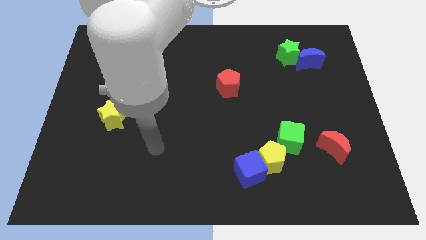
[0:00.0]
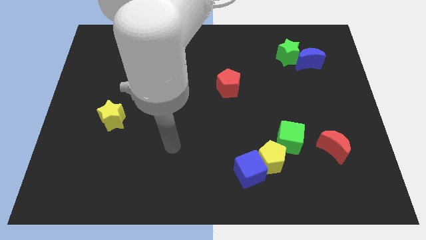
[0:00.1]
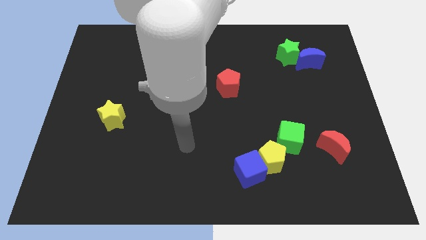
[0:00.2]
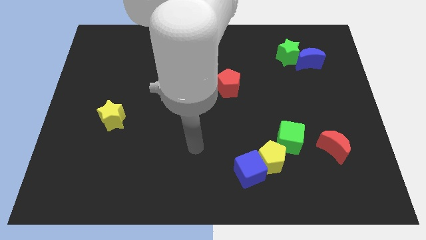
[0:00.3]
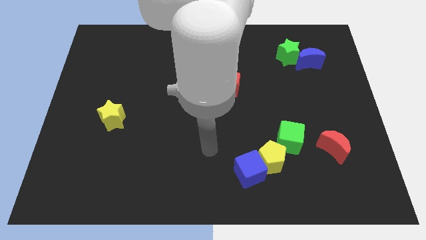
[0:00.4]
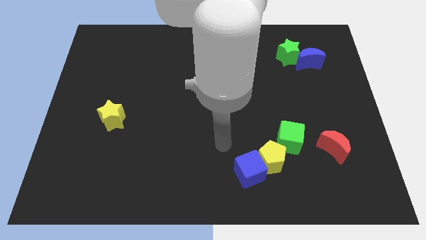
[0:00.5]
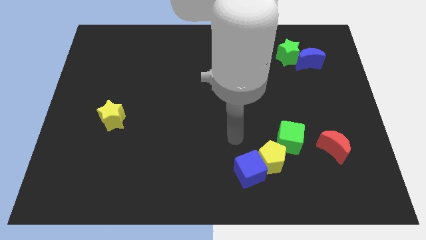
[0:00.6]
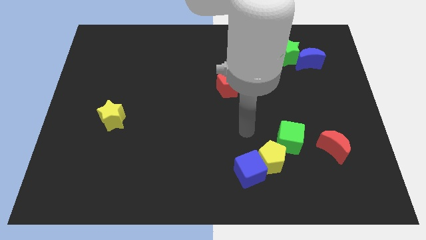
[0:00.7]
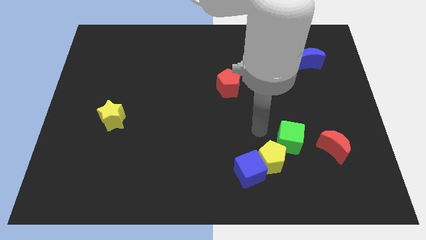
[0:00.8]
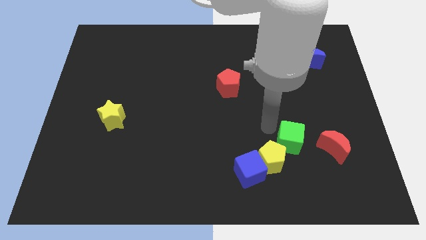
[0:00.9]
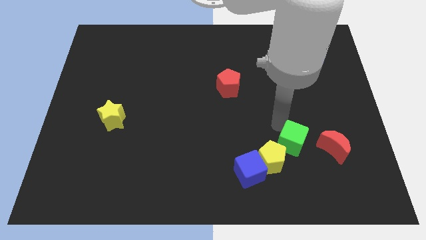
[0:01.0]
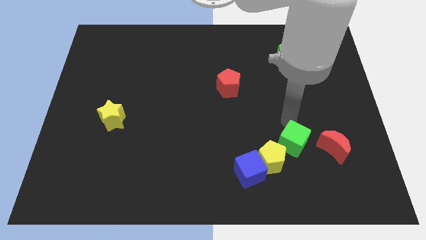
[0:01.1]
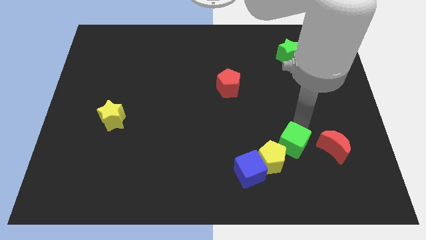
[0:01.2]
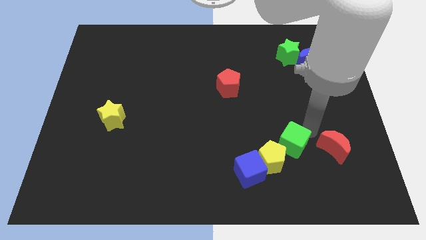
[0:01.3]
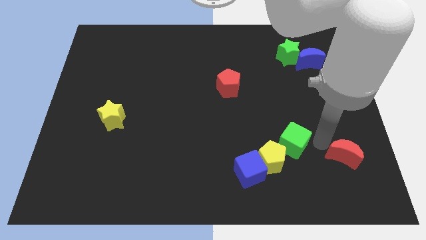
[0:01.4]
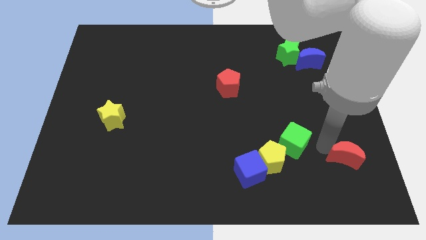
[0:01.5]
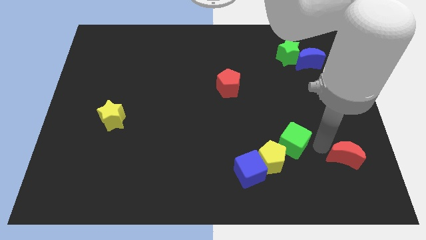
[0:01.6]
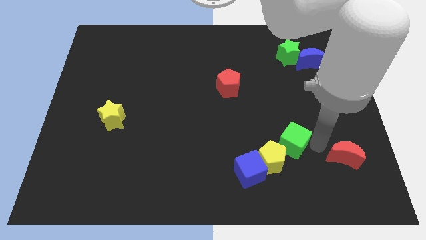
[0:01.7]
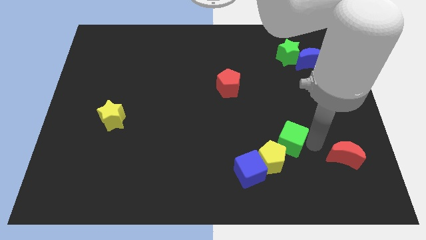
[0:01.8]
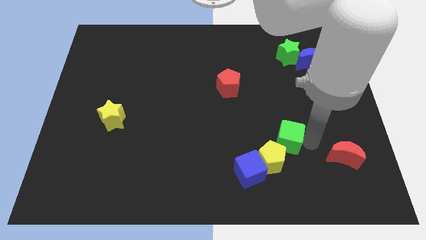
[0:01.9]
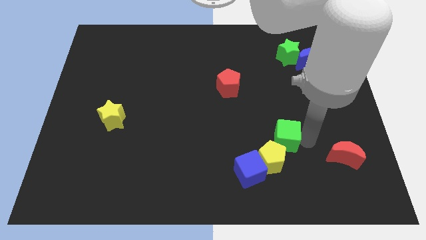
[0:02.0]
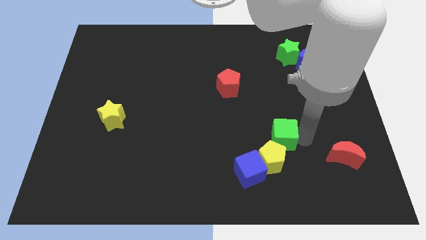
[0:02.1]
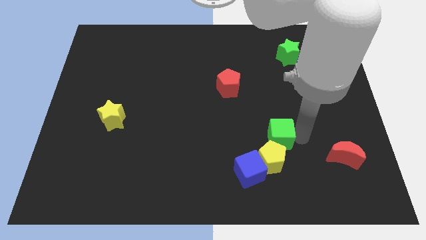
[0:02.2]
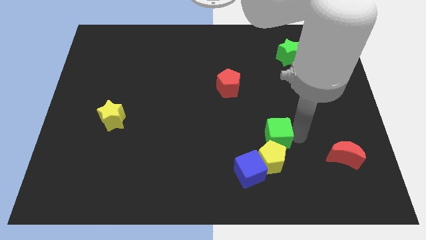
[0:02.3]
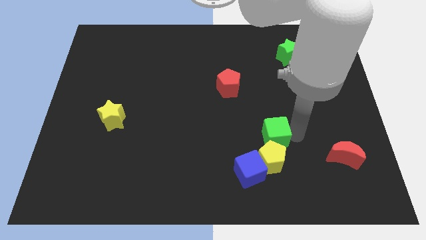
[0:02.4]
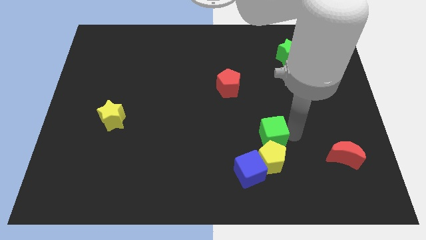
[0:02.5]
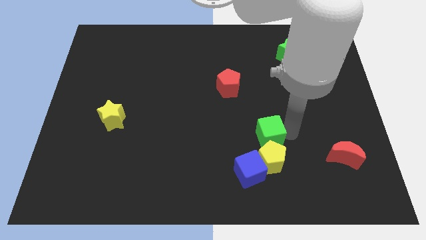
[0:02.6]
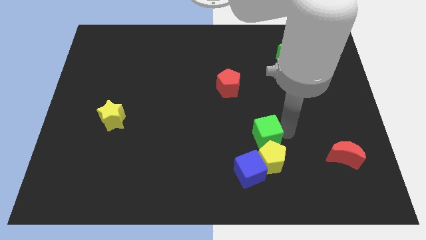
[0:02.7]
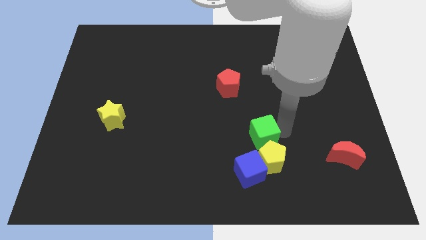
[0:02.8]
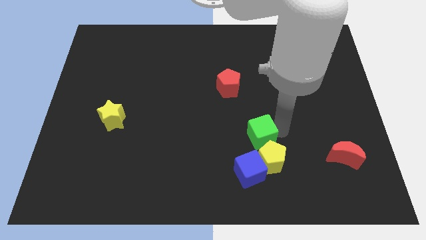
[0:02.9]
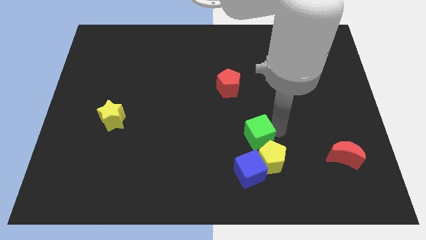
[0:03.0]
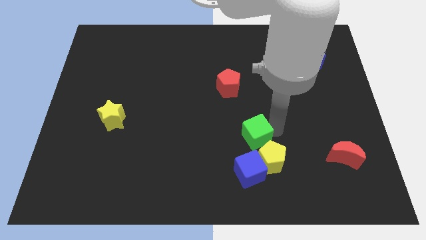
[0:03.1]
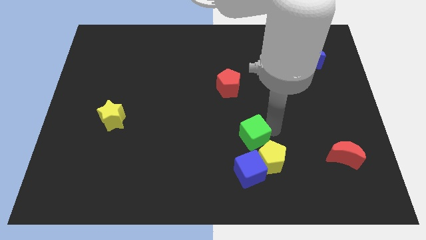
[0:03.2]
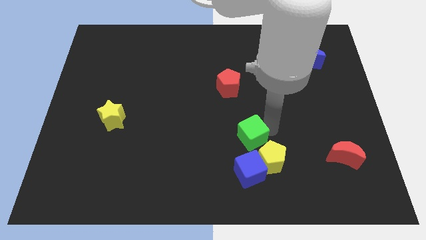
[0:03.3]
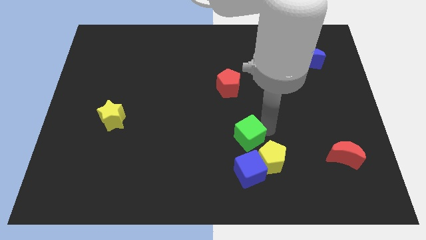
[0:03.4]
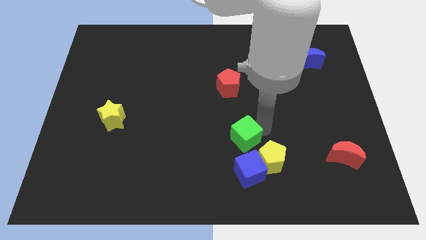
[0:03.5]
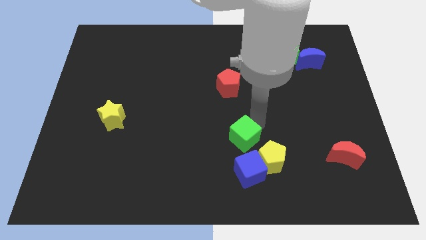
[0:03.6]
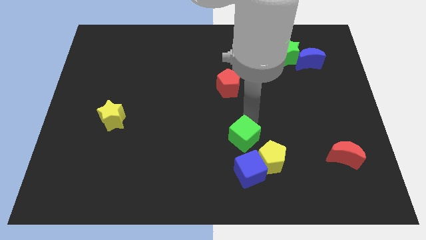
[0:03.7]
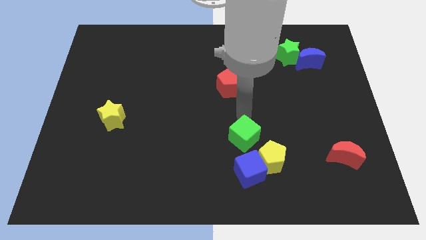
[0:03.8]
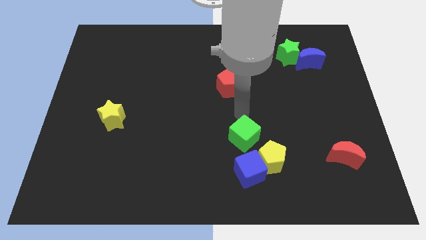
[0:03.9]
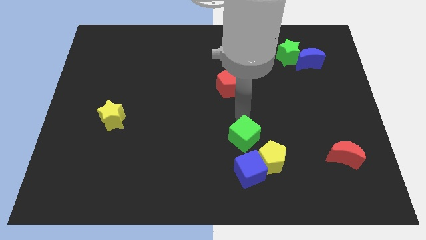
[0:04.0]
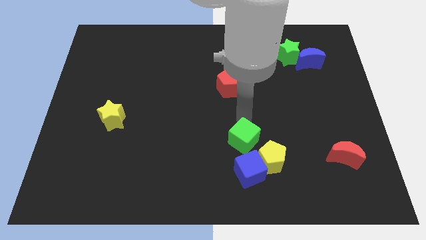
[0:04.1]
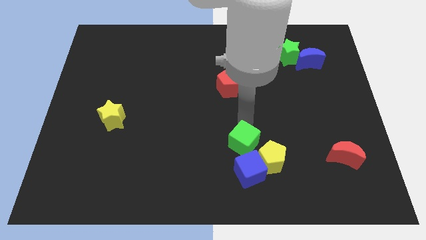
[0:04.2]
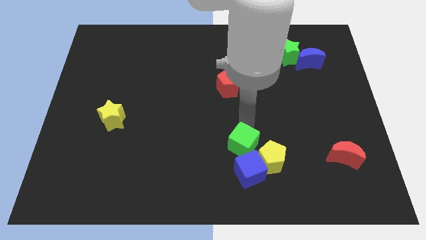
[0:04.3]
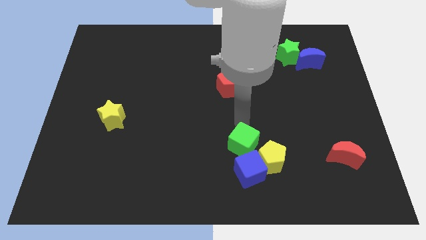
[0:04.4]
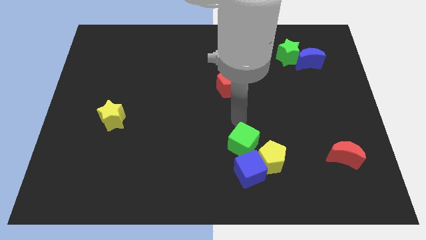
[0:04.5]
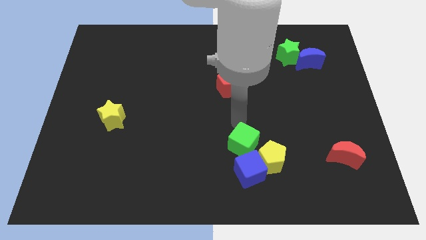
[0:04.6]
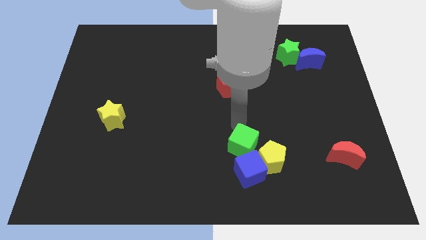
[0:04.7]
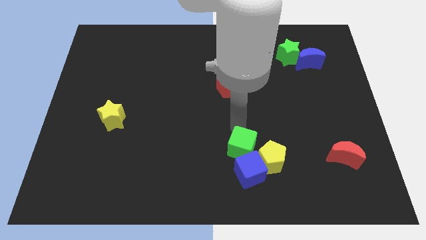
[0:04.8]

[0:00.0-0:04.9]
push the green cube to the blue cube

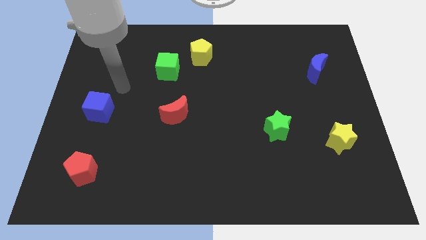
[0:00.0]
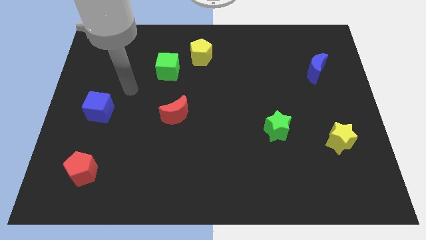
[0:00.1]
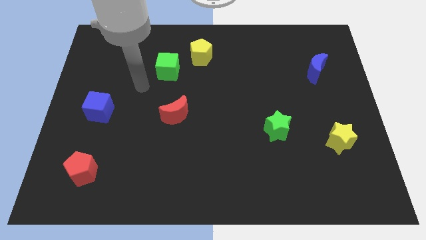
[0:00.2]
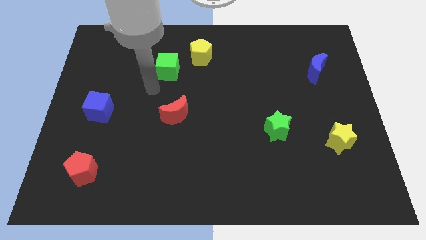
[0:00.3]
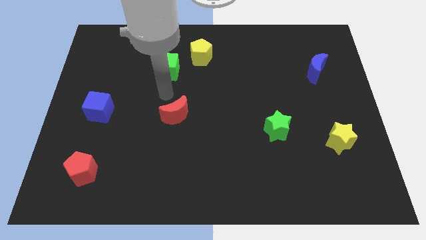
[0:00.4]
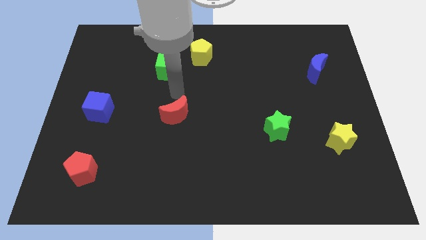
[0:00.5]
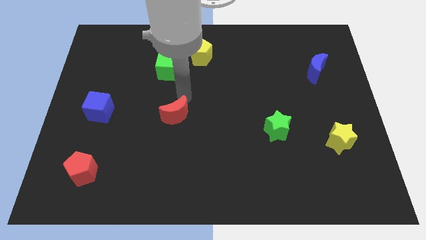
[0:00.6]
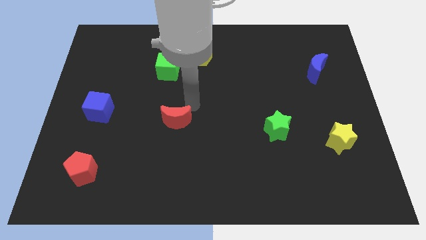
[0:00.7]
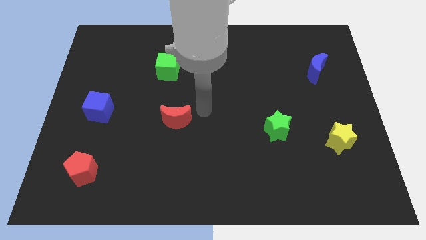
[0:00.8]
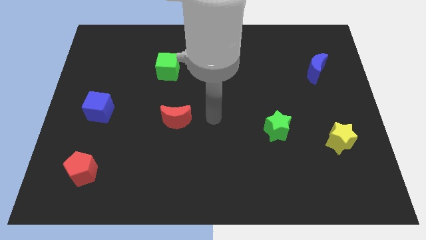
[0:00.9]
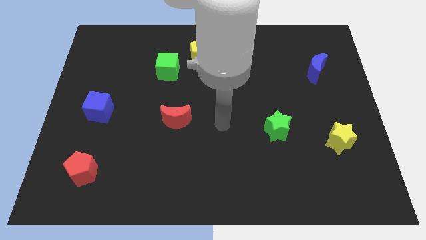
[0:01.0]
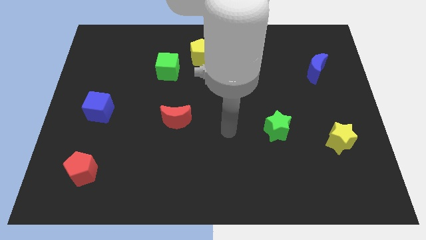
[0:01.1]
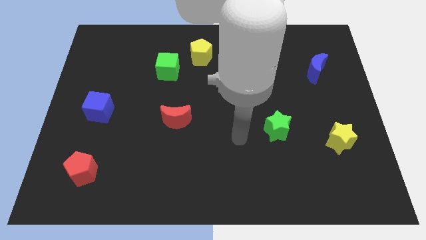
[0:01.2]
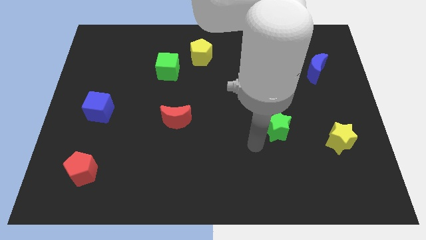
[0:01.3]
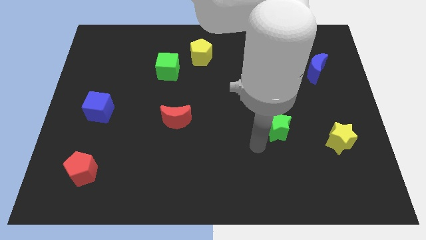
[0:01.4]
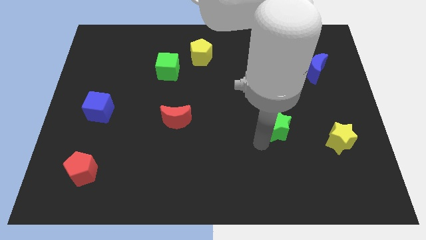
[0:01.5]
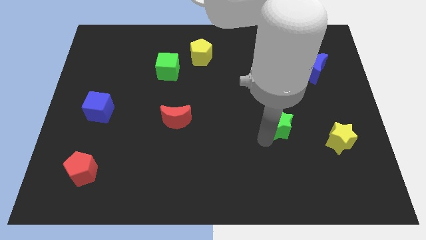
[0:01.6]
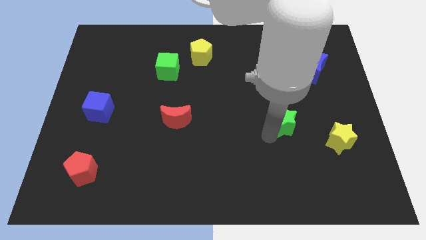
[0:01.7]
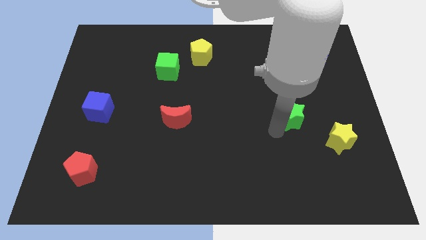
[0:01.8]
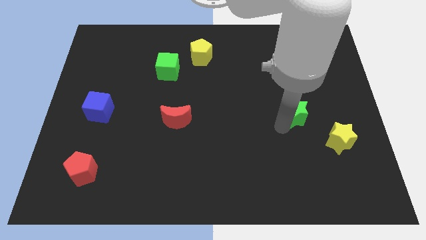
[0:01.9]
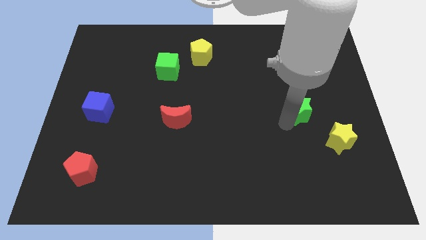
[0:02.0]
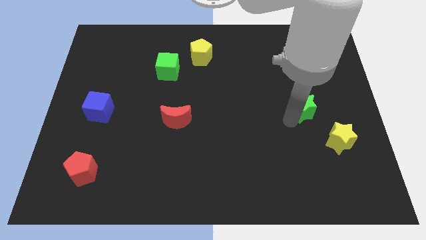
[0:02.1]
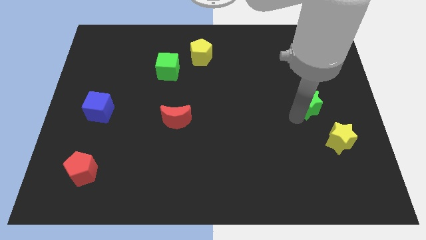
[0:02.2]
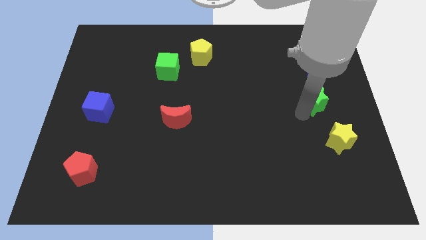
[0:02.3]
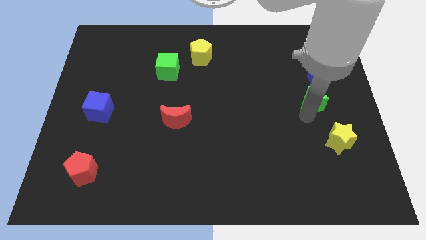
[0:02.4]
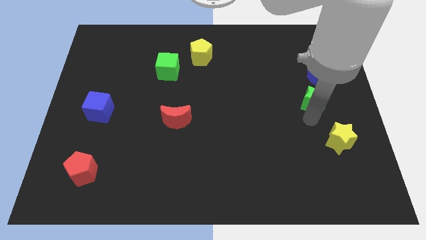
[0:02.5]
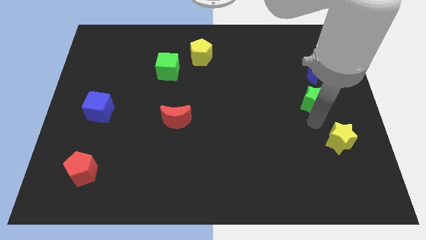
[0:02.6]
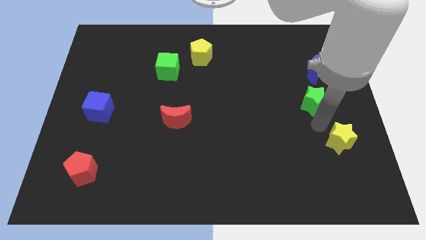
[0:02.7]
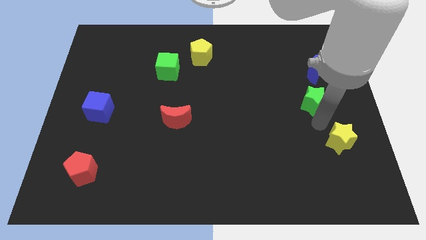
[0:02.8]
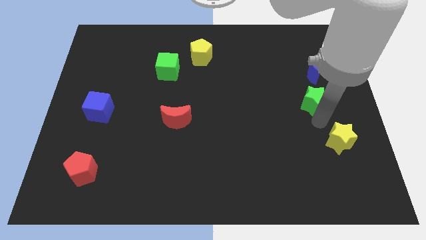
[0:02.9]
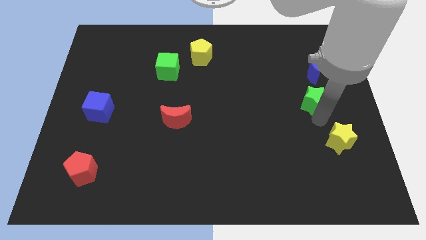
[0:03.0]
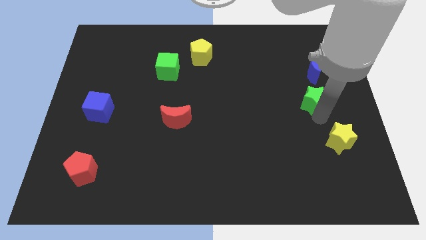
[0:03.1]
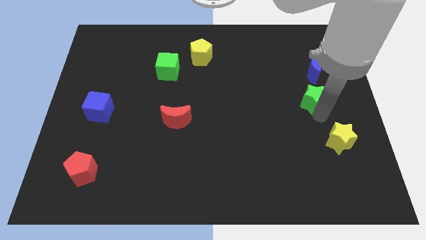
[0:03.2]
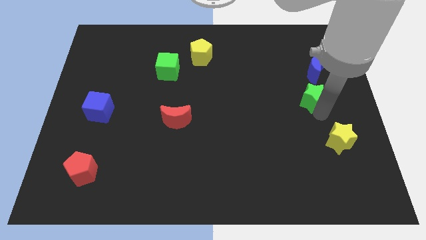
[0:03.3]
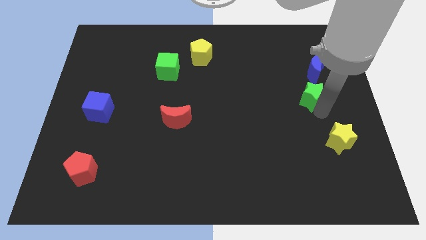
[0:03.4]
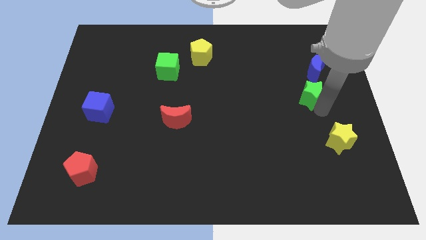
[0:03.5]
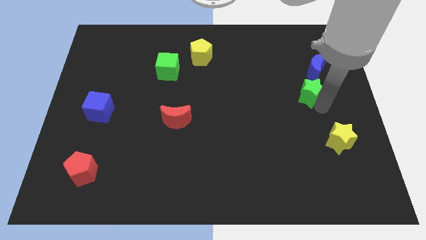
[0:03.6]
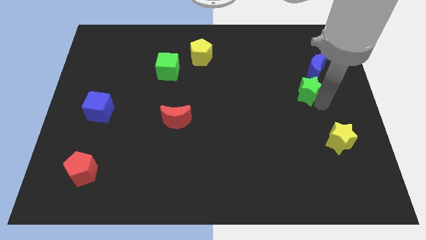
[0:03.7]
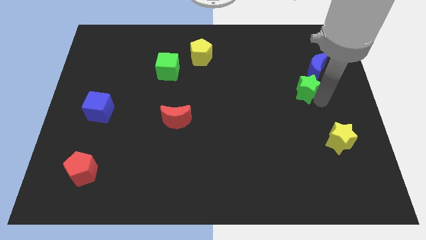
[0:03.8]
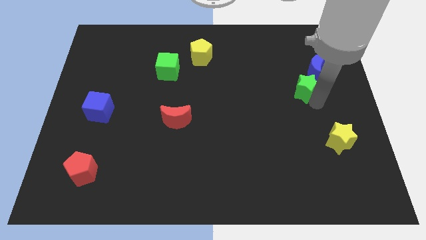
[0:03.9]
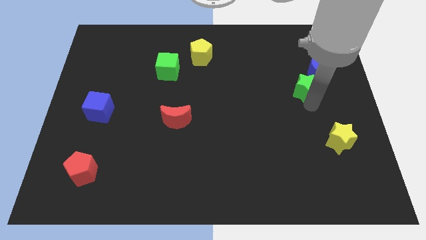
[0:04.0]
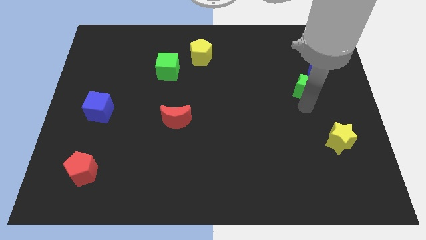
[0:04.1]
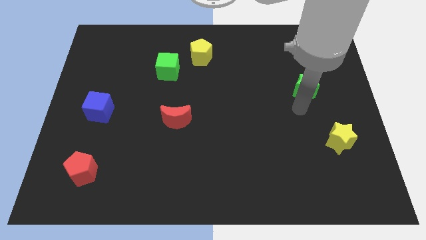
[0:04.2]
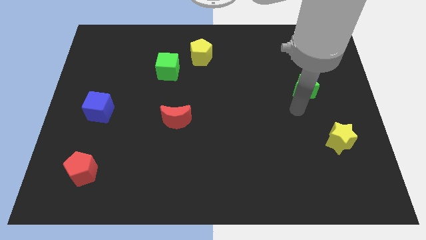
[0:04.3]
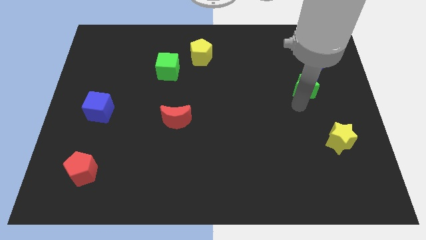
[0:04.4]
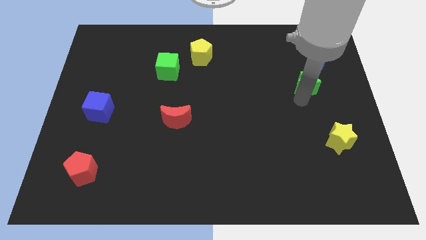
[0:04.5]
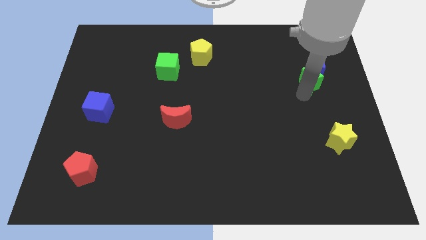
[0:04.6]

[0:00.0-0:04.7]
move the green star close to the blue moon
